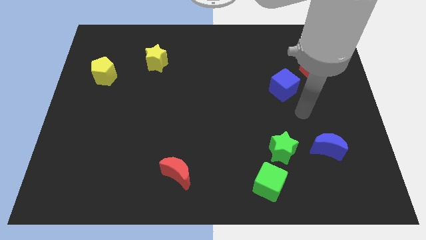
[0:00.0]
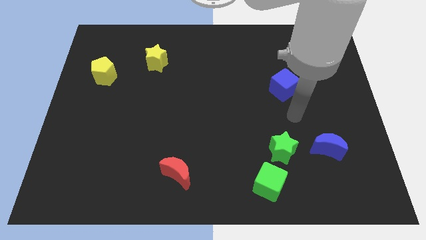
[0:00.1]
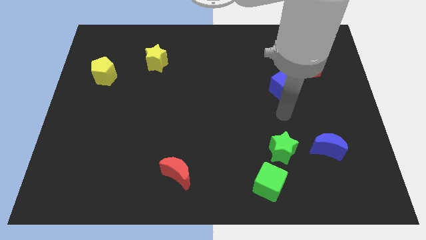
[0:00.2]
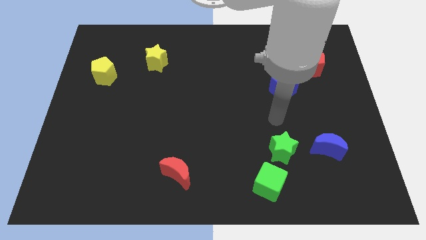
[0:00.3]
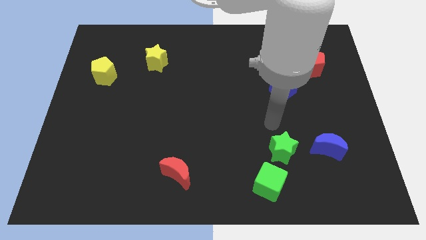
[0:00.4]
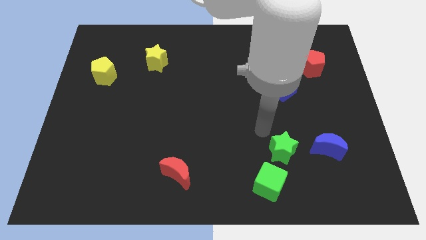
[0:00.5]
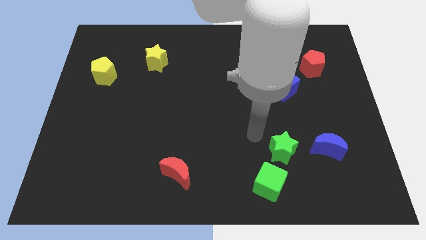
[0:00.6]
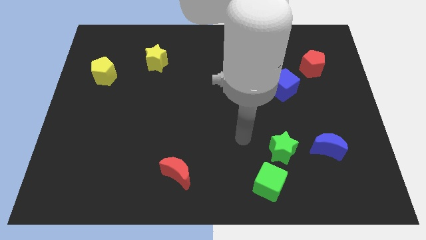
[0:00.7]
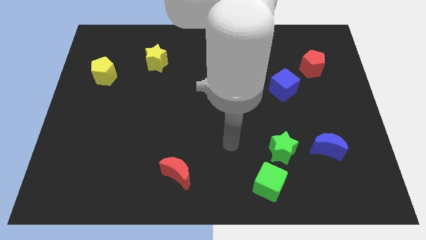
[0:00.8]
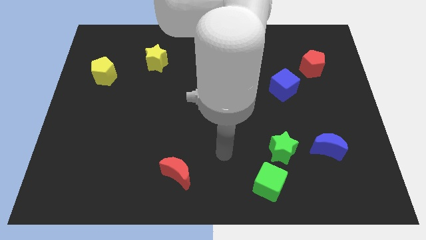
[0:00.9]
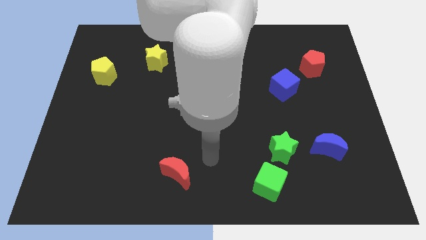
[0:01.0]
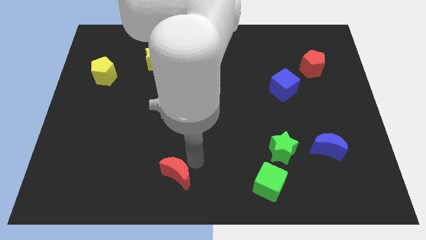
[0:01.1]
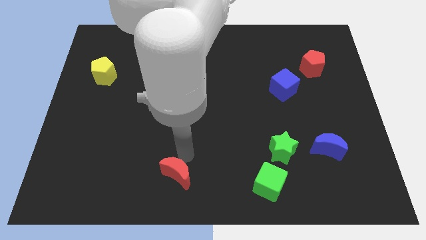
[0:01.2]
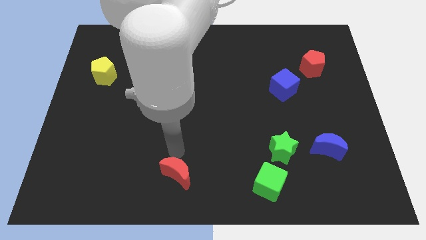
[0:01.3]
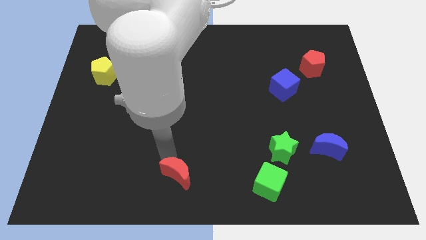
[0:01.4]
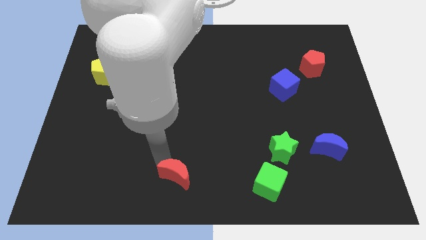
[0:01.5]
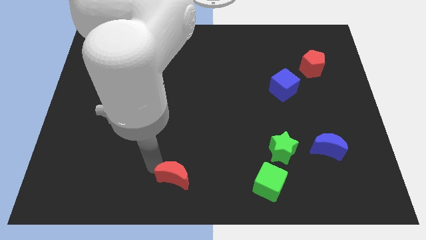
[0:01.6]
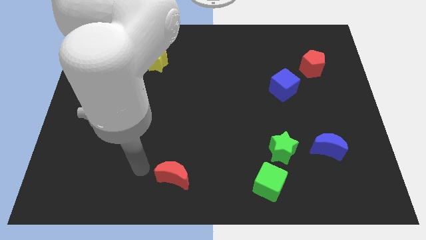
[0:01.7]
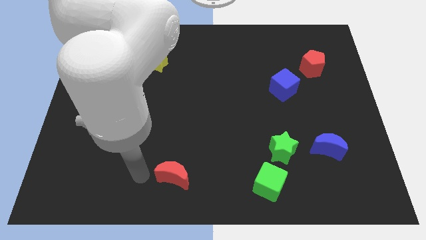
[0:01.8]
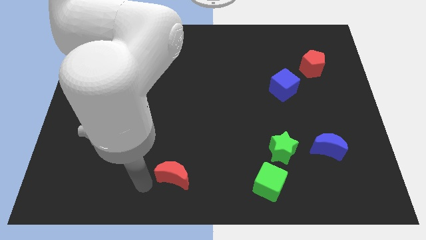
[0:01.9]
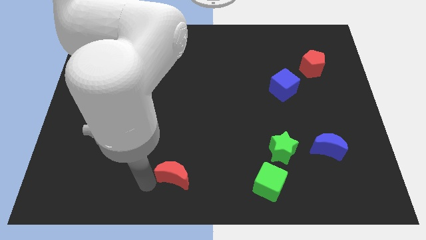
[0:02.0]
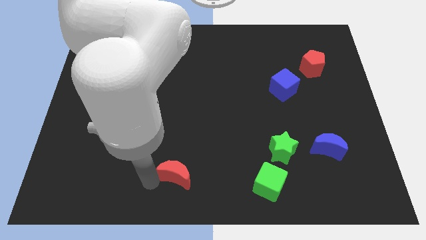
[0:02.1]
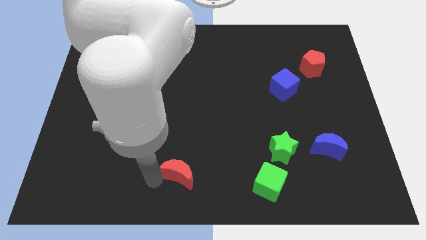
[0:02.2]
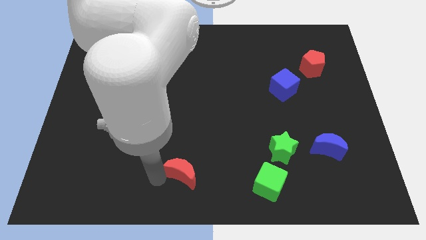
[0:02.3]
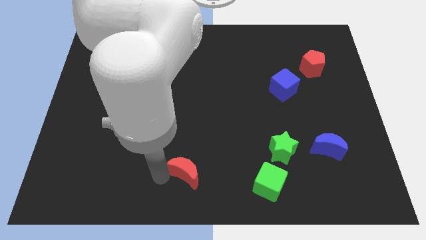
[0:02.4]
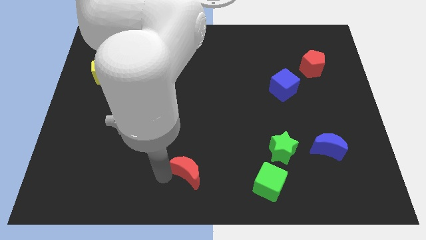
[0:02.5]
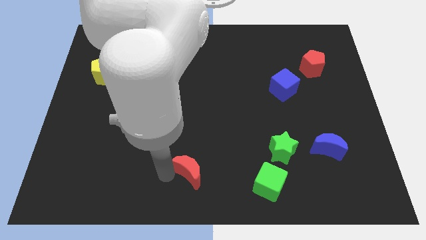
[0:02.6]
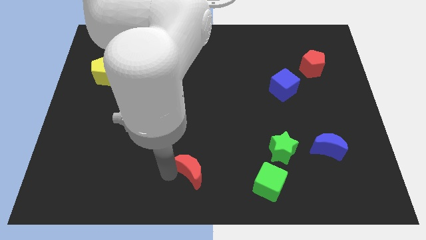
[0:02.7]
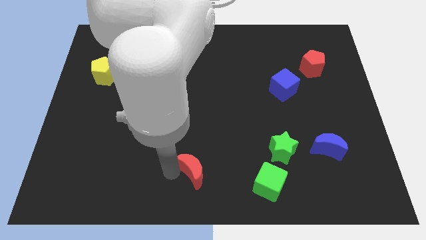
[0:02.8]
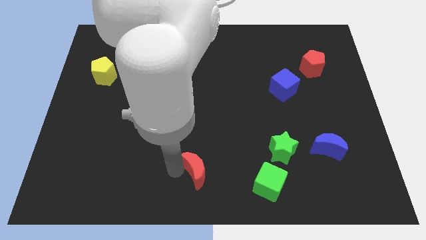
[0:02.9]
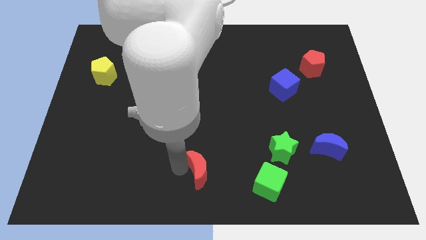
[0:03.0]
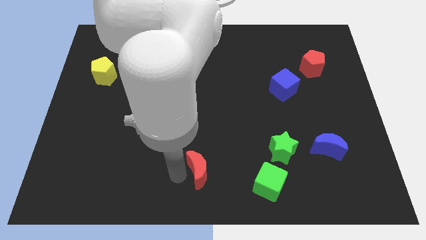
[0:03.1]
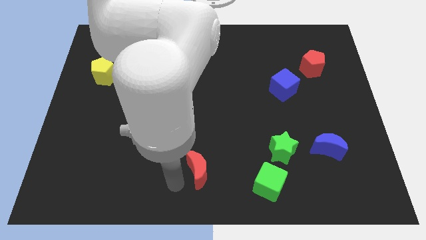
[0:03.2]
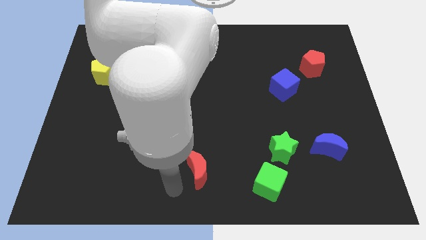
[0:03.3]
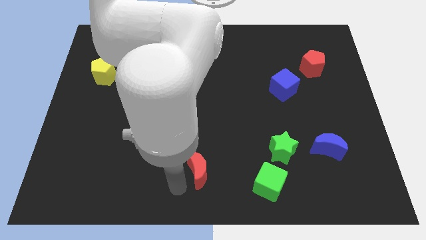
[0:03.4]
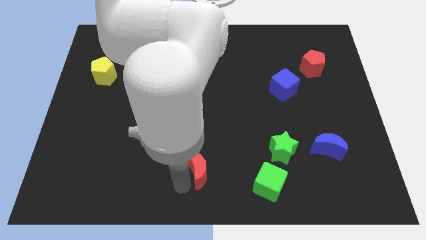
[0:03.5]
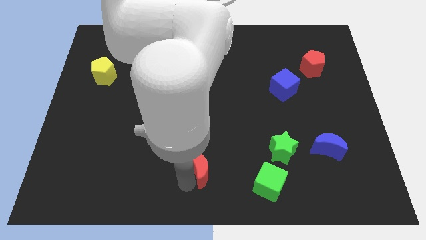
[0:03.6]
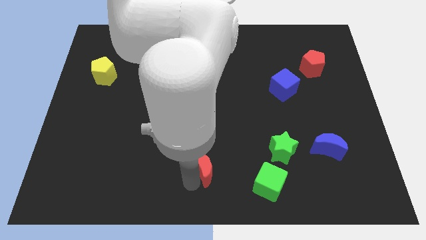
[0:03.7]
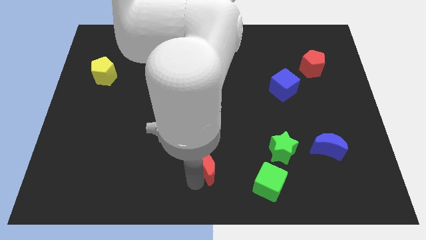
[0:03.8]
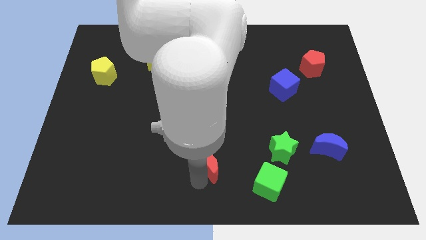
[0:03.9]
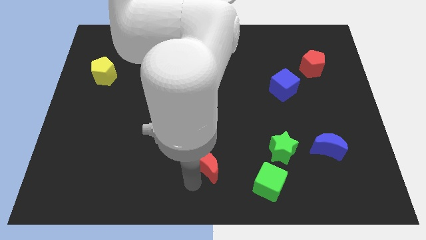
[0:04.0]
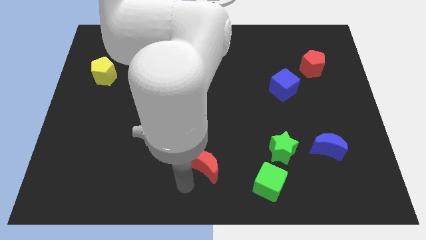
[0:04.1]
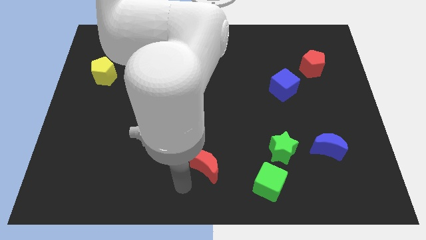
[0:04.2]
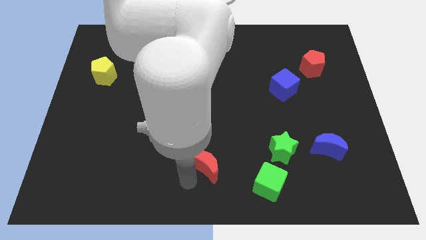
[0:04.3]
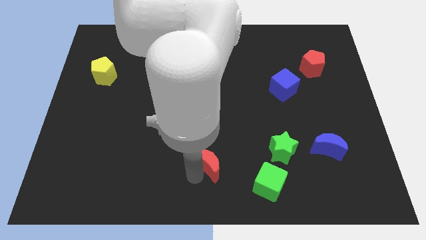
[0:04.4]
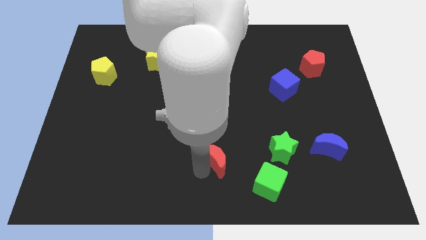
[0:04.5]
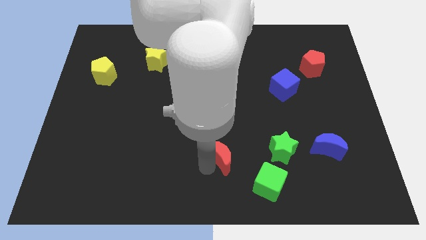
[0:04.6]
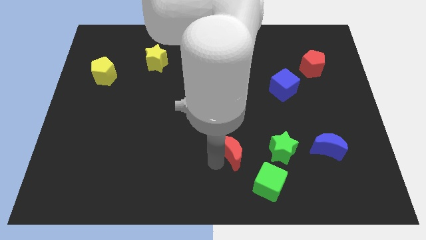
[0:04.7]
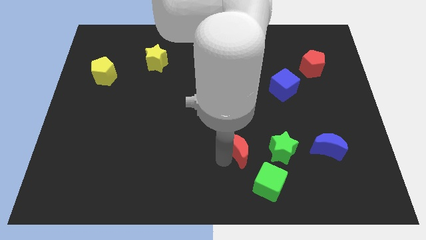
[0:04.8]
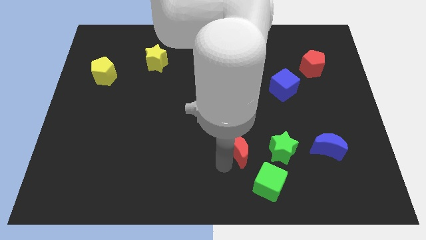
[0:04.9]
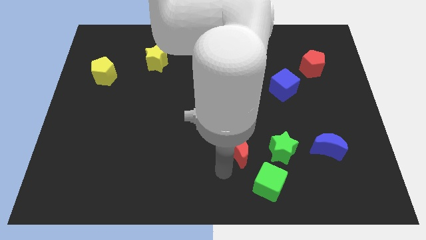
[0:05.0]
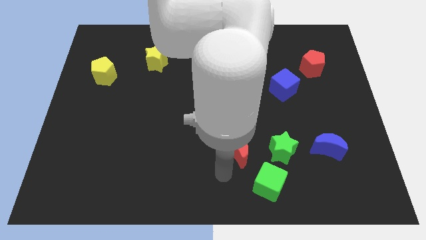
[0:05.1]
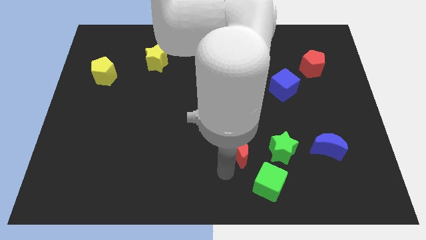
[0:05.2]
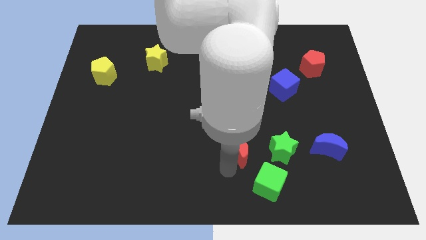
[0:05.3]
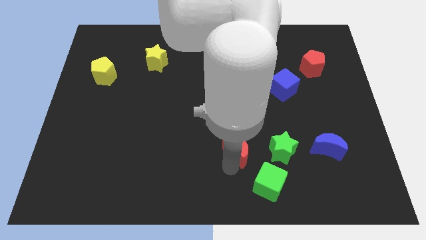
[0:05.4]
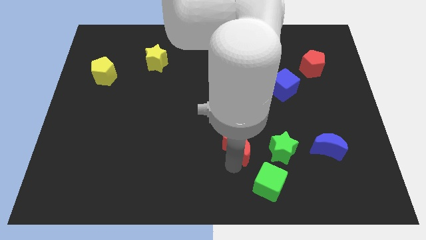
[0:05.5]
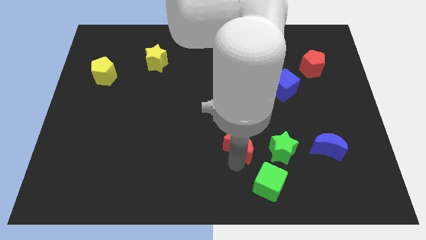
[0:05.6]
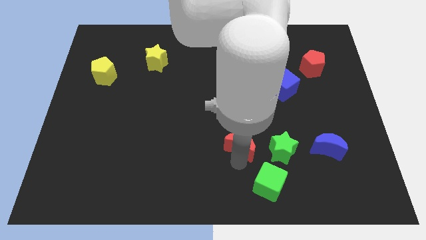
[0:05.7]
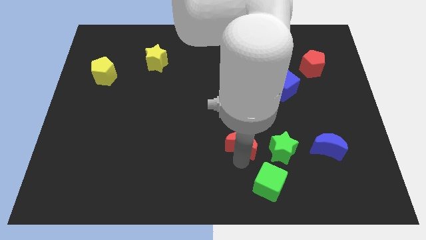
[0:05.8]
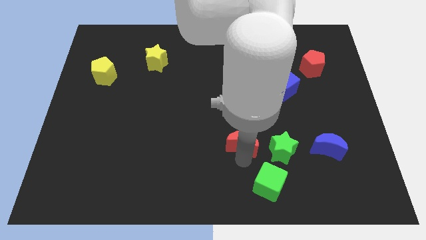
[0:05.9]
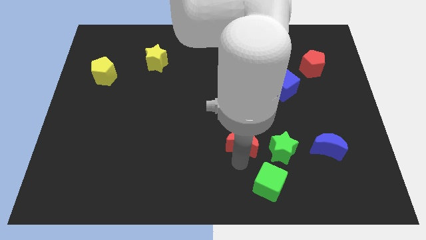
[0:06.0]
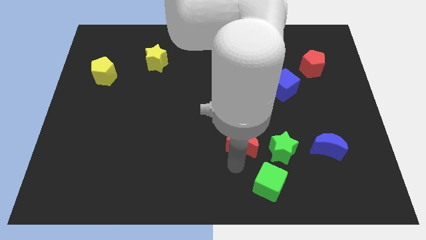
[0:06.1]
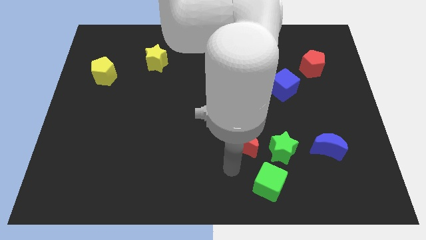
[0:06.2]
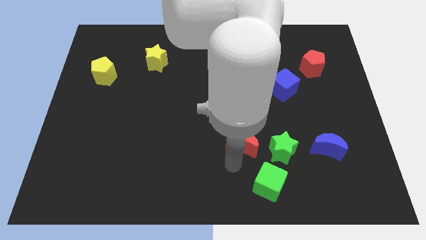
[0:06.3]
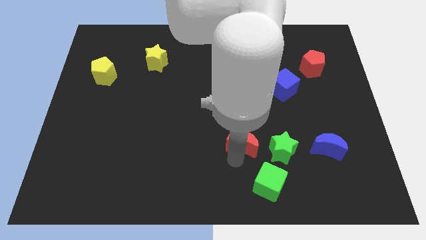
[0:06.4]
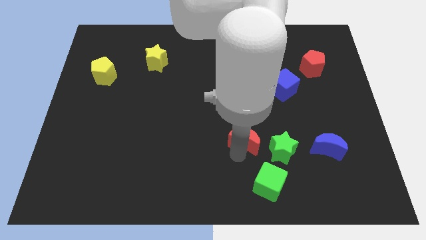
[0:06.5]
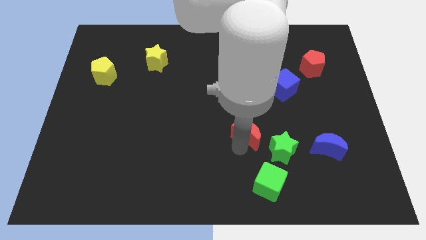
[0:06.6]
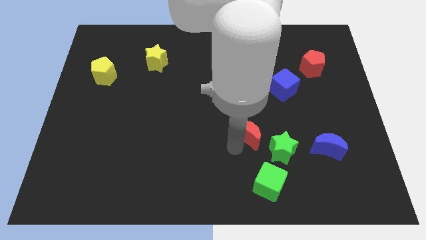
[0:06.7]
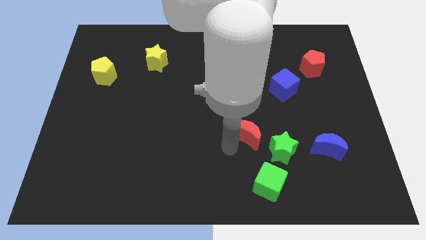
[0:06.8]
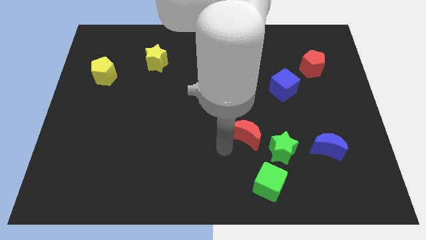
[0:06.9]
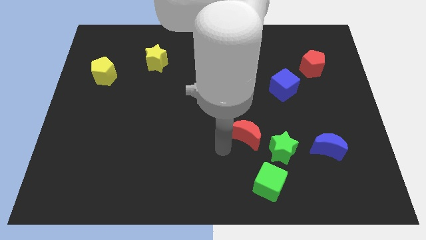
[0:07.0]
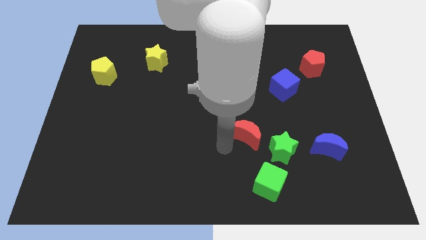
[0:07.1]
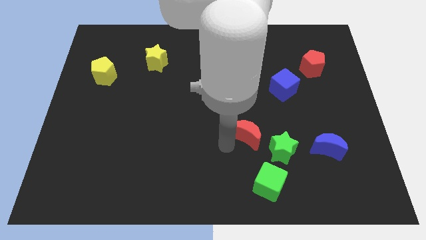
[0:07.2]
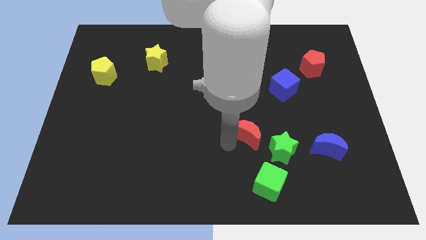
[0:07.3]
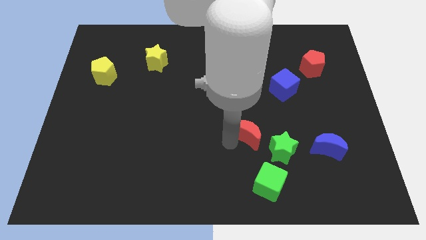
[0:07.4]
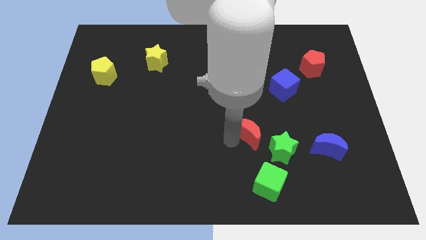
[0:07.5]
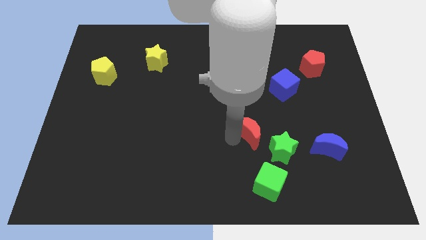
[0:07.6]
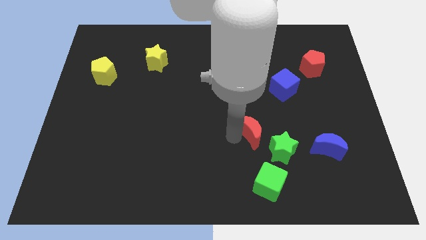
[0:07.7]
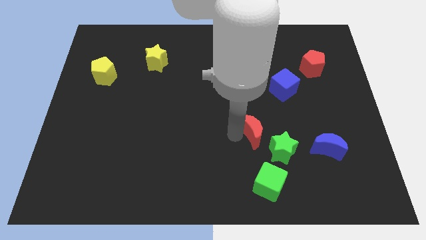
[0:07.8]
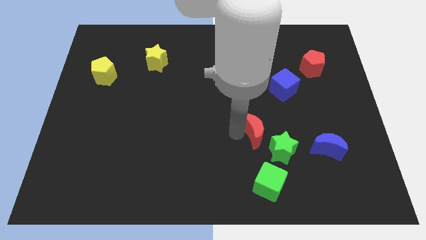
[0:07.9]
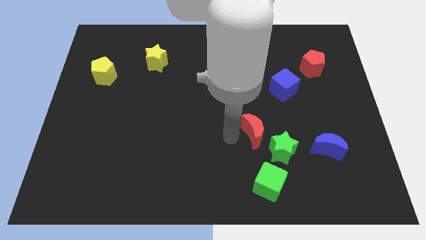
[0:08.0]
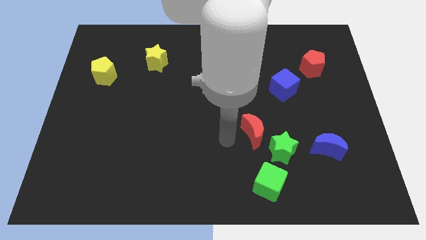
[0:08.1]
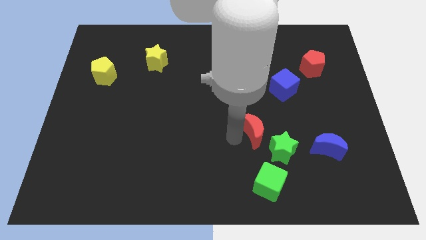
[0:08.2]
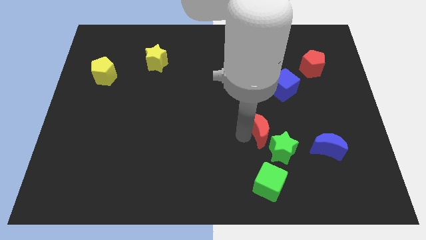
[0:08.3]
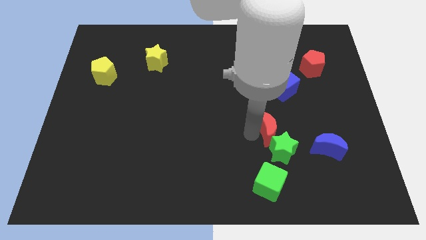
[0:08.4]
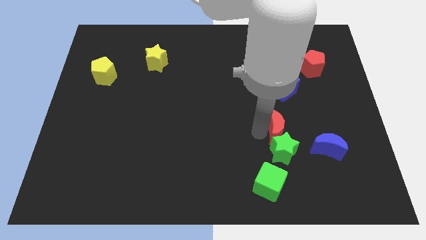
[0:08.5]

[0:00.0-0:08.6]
move the red moon to the bottom of the blue cube
